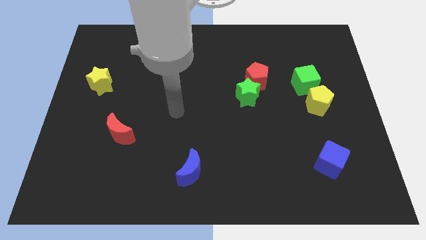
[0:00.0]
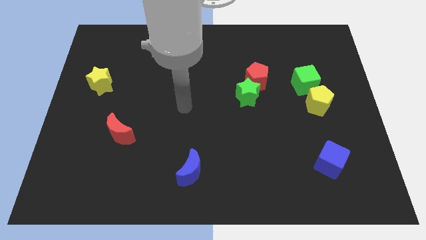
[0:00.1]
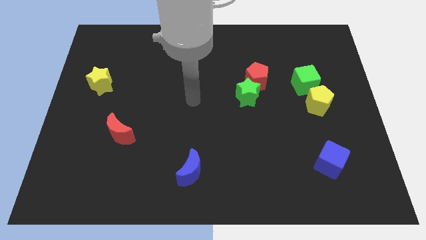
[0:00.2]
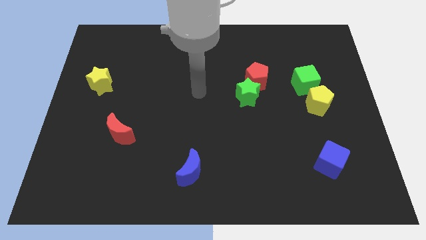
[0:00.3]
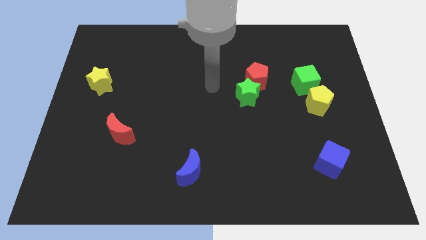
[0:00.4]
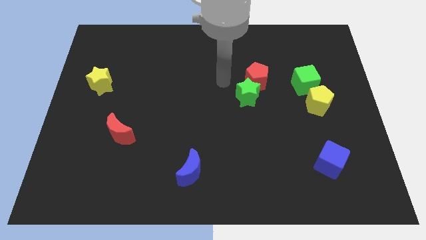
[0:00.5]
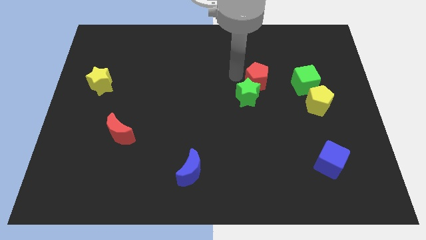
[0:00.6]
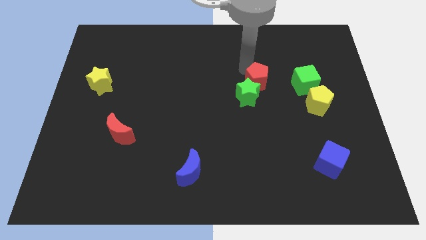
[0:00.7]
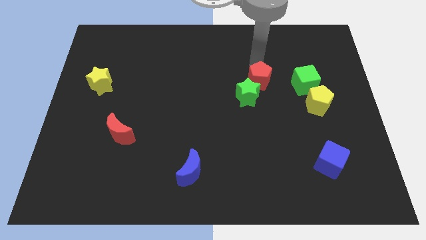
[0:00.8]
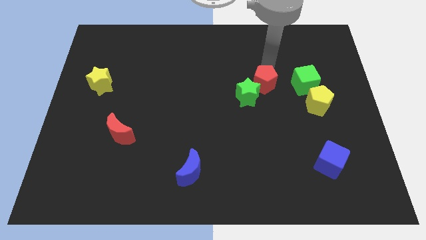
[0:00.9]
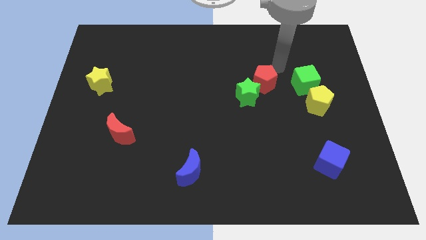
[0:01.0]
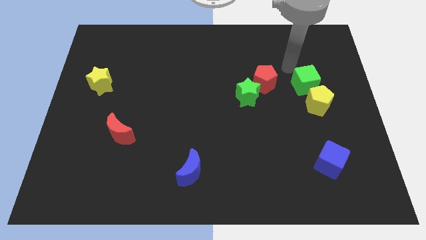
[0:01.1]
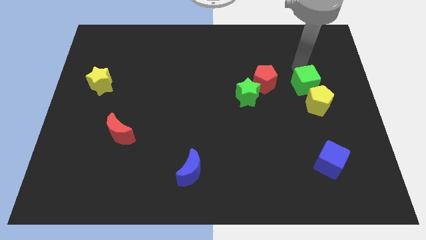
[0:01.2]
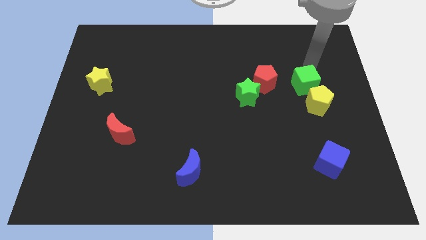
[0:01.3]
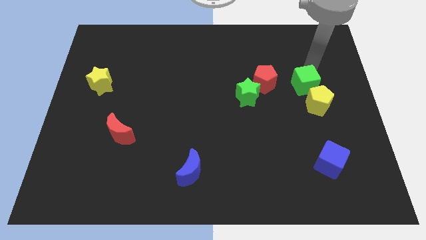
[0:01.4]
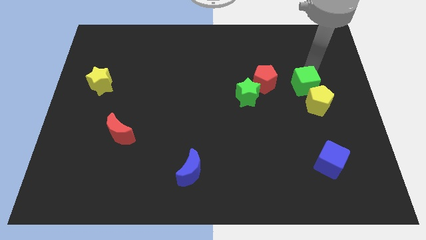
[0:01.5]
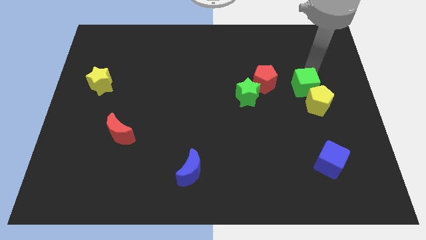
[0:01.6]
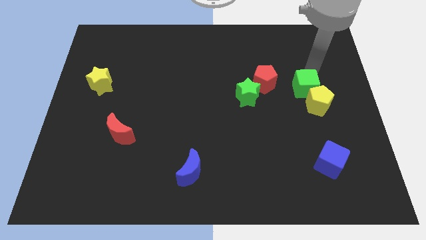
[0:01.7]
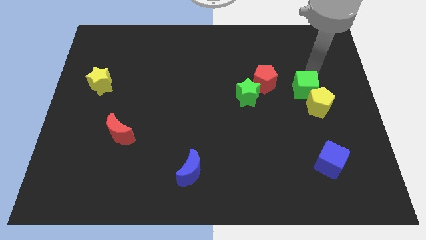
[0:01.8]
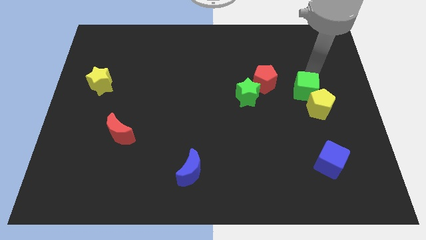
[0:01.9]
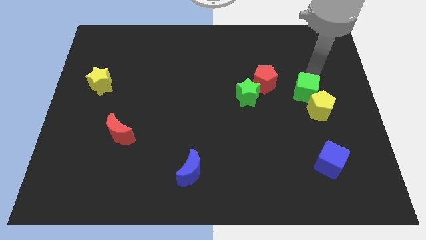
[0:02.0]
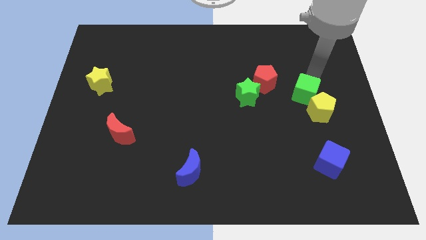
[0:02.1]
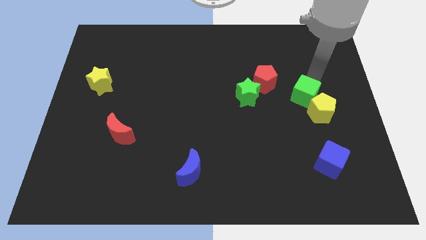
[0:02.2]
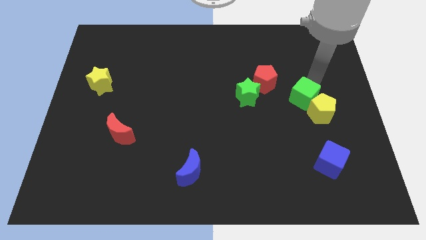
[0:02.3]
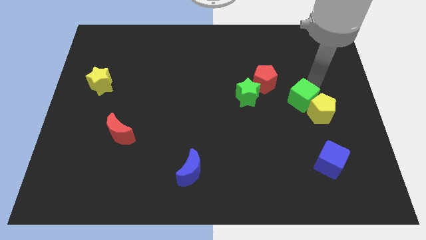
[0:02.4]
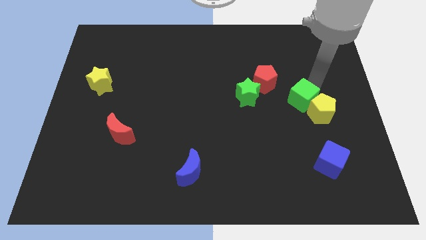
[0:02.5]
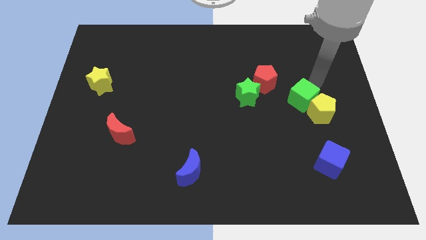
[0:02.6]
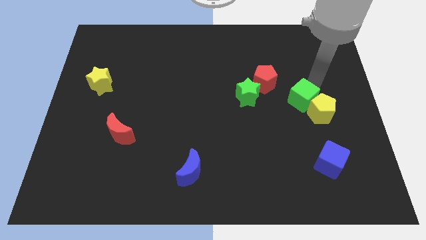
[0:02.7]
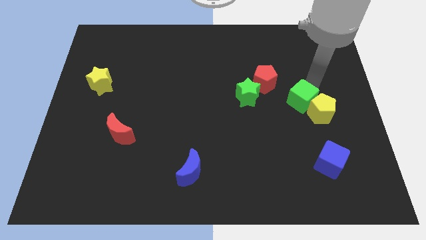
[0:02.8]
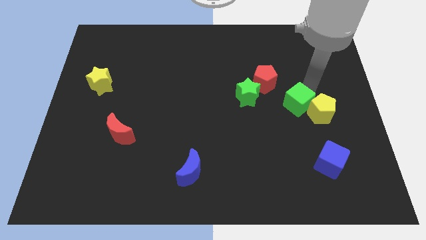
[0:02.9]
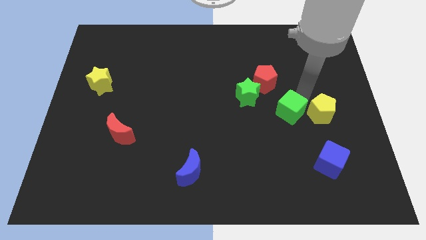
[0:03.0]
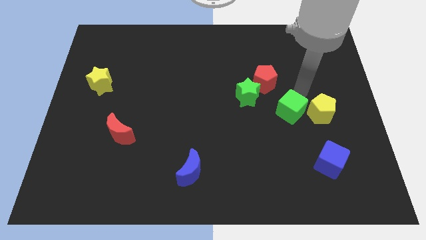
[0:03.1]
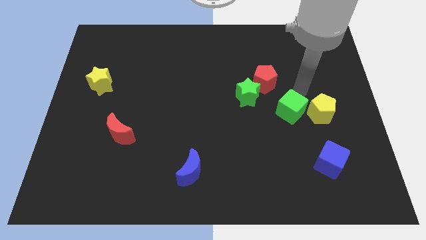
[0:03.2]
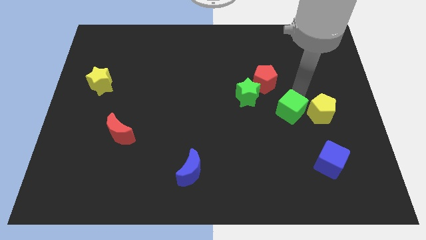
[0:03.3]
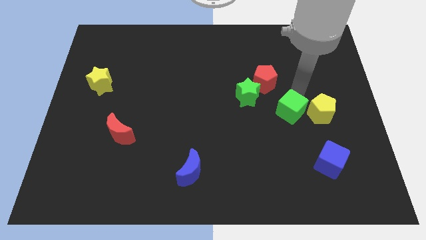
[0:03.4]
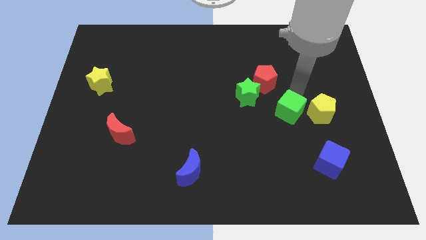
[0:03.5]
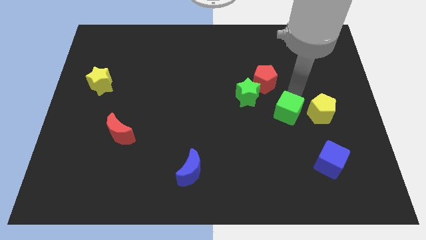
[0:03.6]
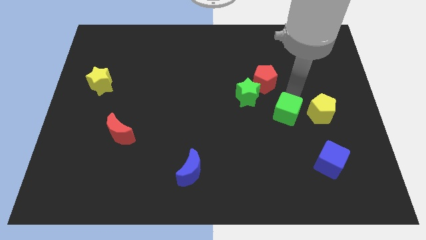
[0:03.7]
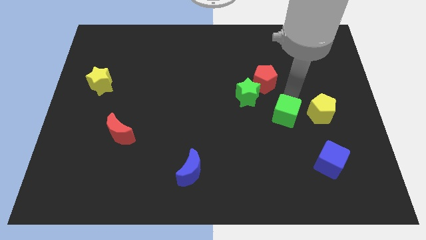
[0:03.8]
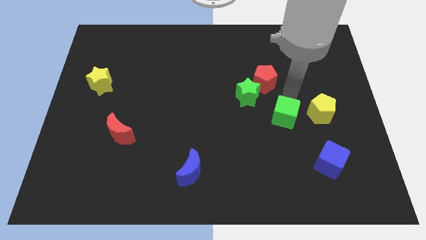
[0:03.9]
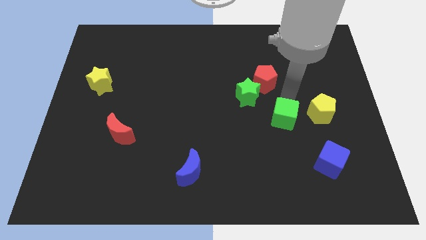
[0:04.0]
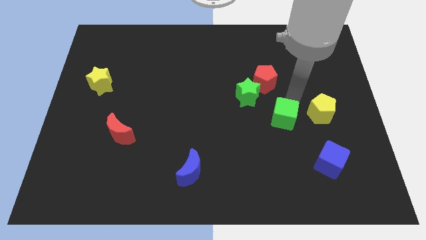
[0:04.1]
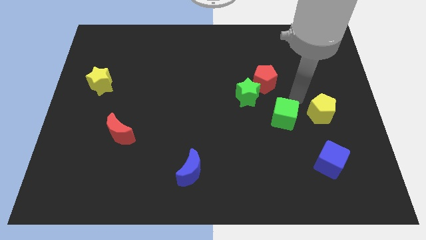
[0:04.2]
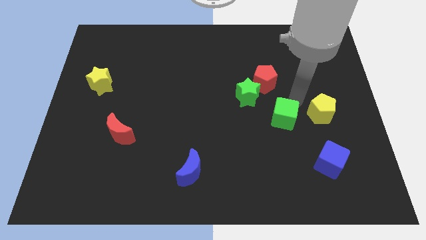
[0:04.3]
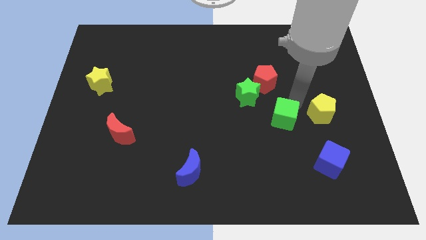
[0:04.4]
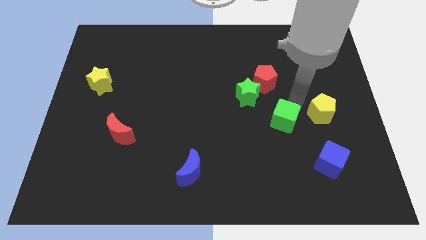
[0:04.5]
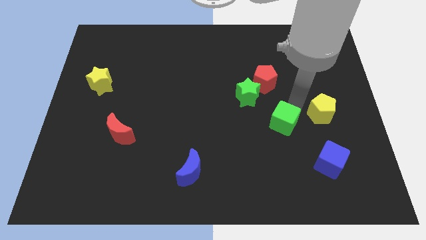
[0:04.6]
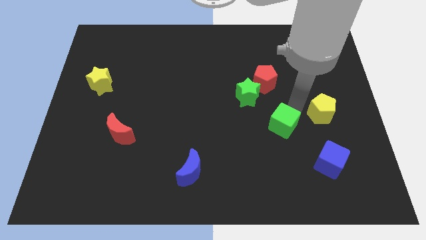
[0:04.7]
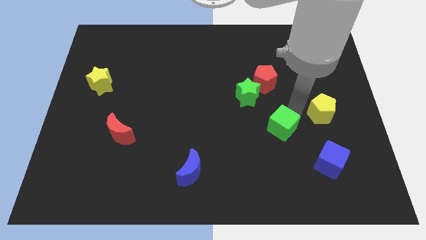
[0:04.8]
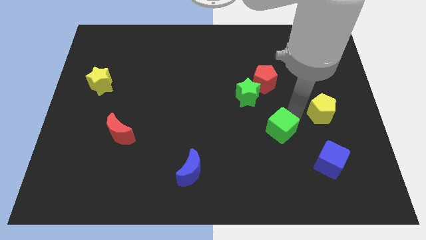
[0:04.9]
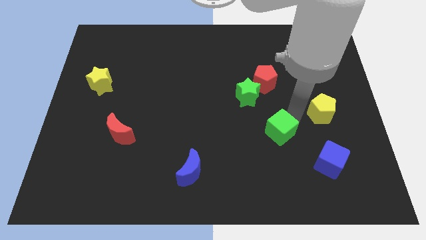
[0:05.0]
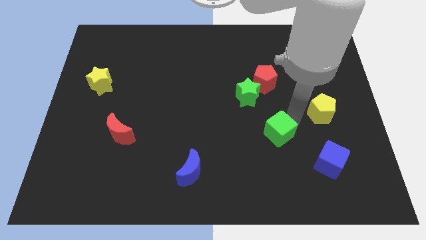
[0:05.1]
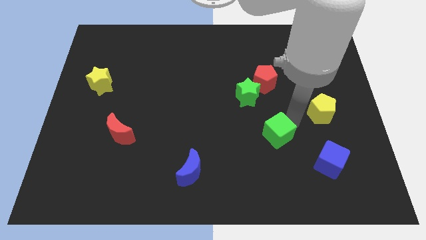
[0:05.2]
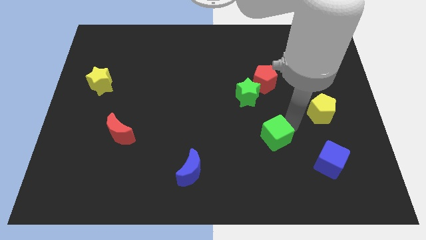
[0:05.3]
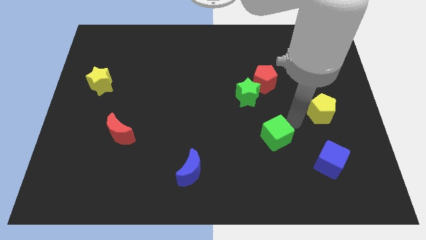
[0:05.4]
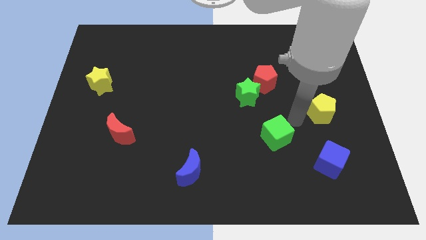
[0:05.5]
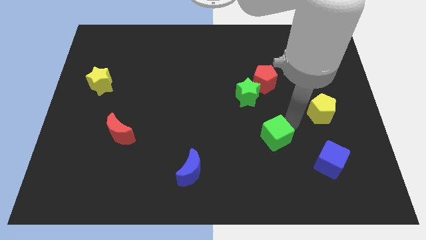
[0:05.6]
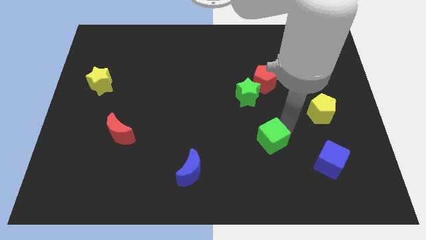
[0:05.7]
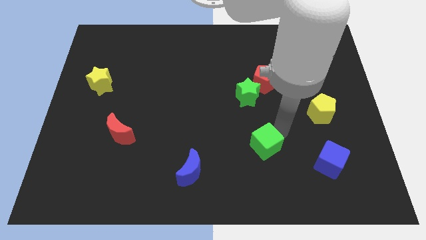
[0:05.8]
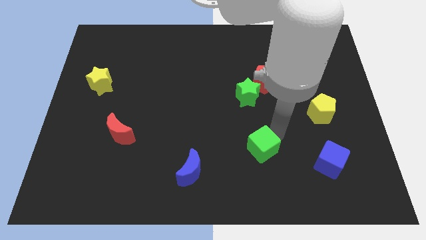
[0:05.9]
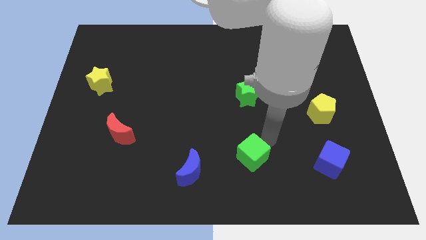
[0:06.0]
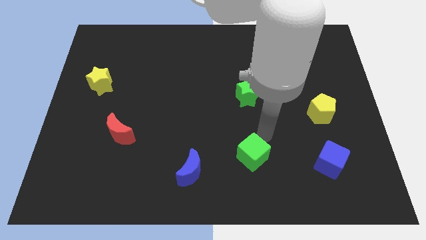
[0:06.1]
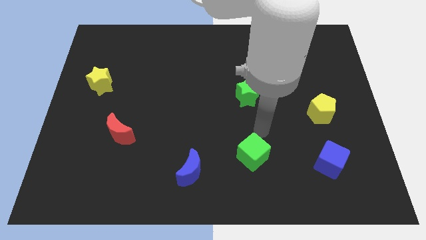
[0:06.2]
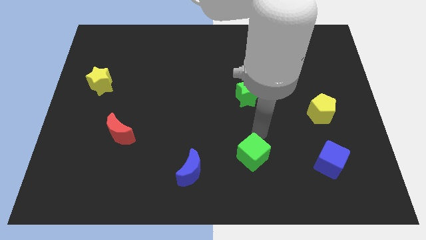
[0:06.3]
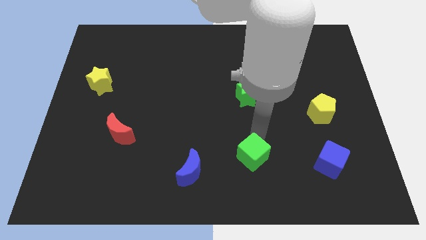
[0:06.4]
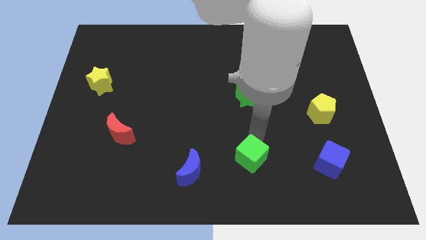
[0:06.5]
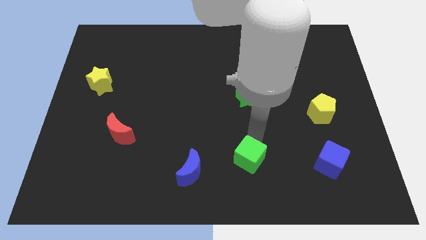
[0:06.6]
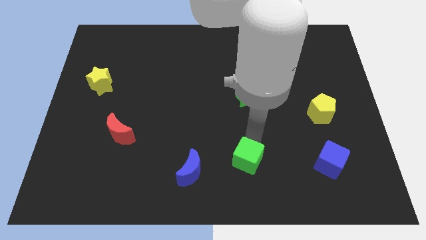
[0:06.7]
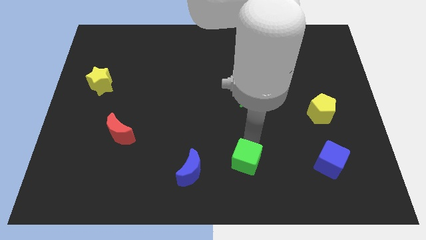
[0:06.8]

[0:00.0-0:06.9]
slide the green cube to the bottom
